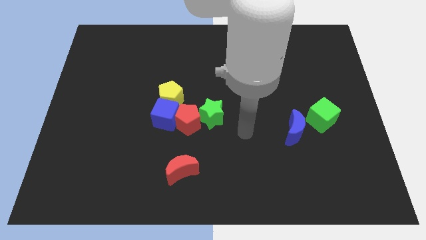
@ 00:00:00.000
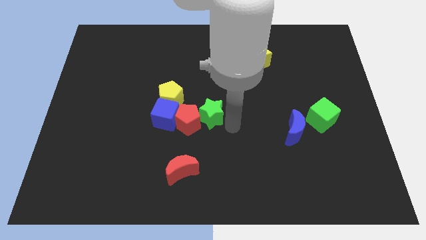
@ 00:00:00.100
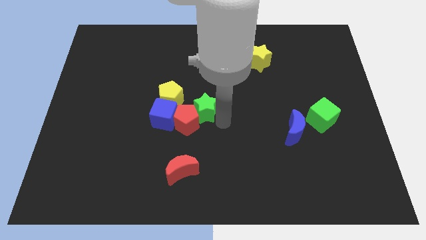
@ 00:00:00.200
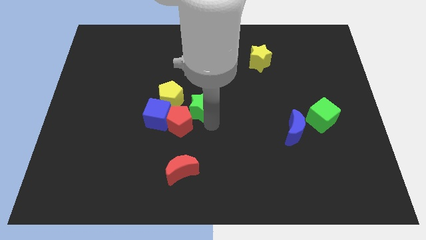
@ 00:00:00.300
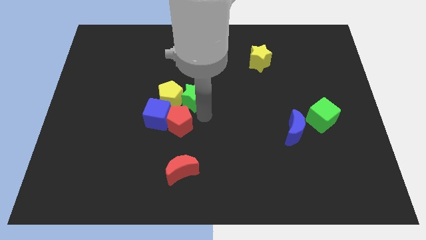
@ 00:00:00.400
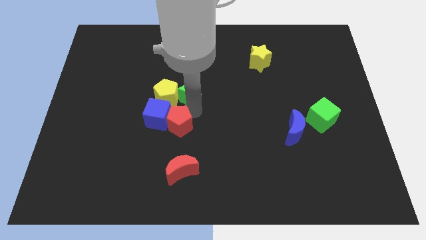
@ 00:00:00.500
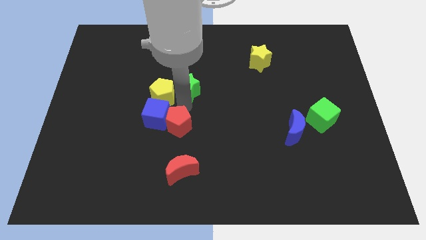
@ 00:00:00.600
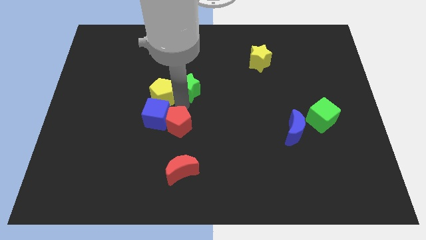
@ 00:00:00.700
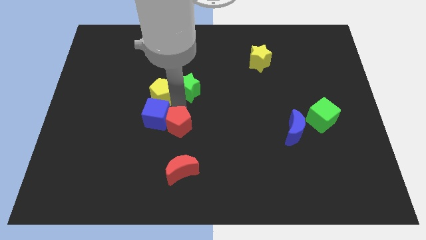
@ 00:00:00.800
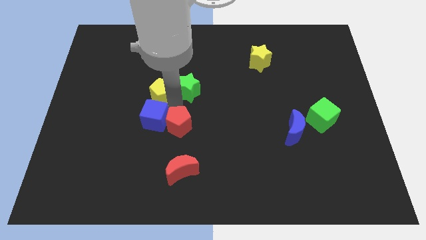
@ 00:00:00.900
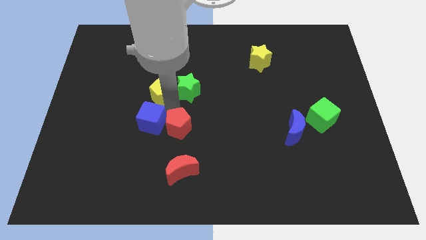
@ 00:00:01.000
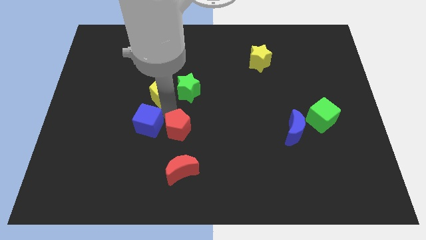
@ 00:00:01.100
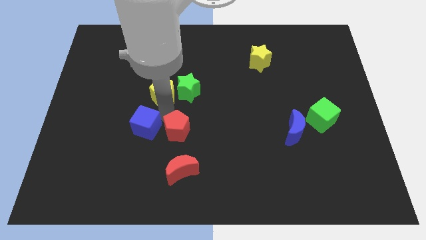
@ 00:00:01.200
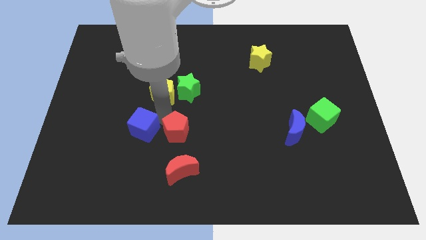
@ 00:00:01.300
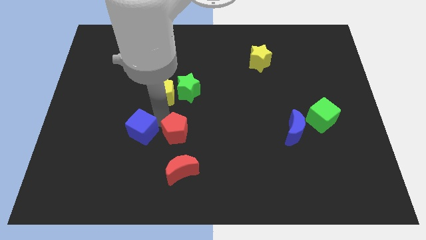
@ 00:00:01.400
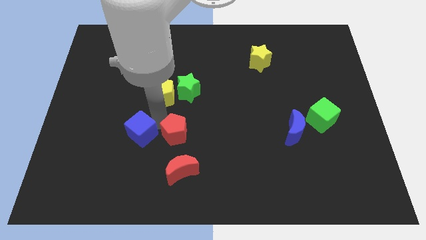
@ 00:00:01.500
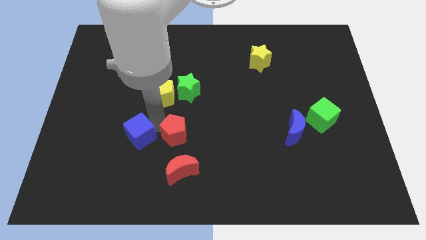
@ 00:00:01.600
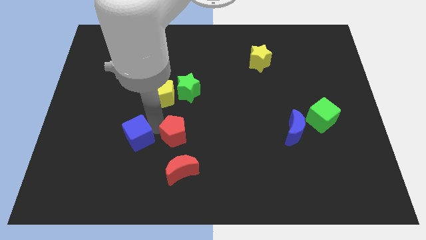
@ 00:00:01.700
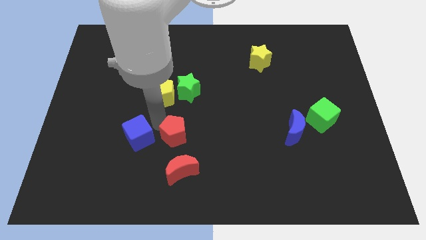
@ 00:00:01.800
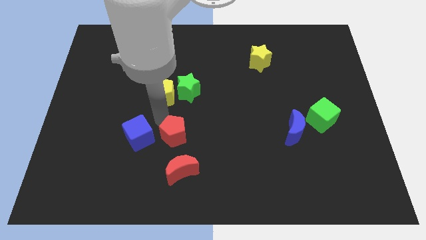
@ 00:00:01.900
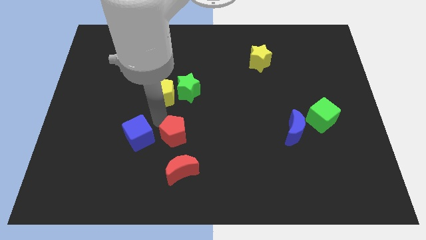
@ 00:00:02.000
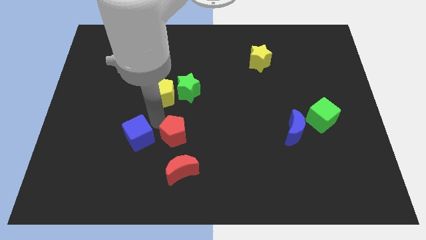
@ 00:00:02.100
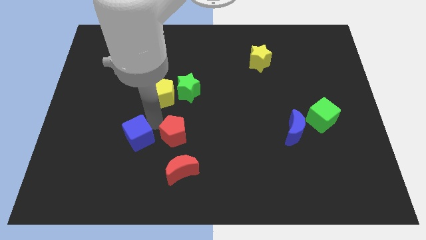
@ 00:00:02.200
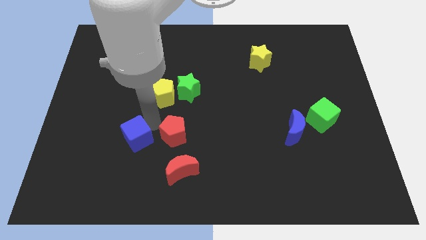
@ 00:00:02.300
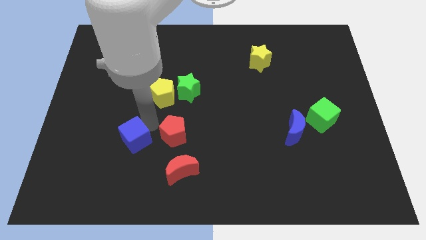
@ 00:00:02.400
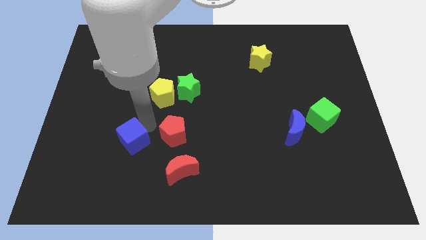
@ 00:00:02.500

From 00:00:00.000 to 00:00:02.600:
pull the blue cube apart from the yellow pentagon and red pentagon

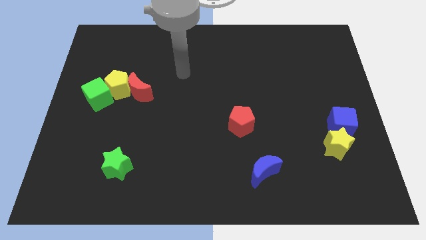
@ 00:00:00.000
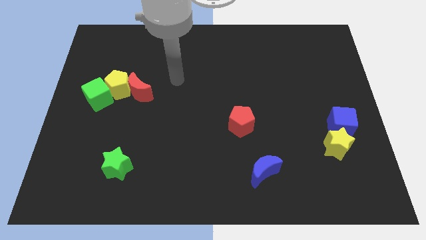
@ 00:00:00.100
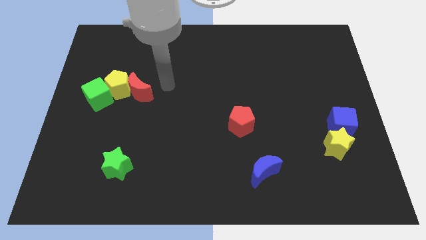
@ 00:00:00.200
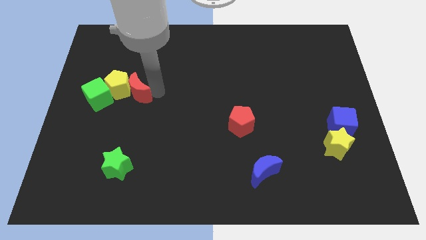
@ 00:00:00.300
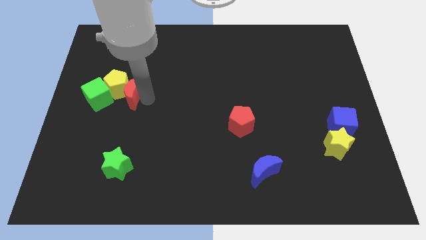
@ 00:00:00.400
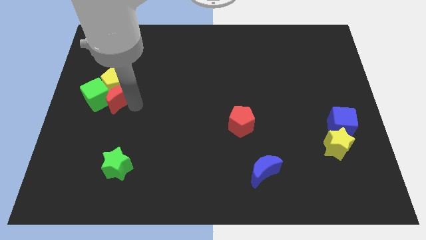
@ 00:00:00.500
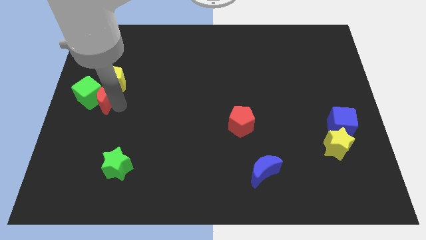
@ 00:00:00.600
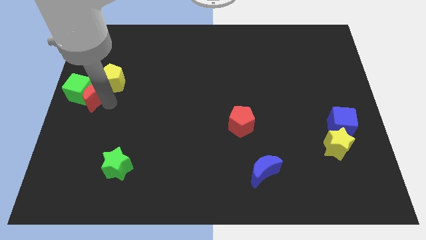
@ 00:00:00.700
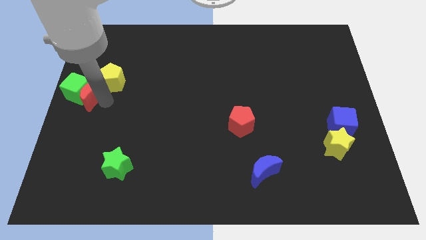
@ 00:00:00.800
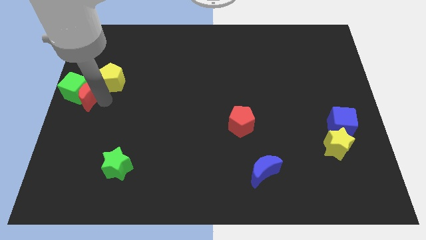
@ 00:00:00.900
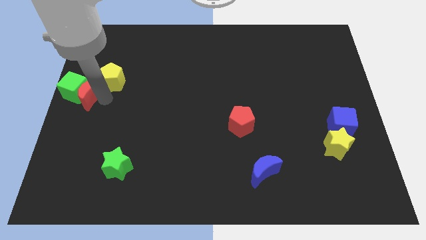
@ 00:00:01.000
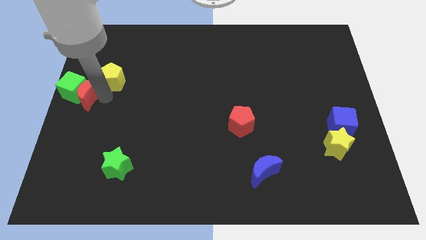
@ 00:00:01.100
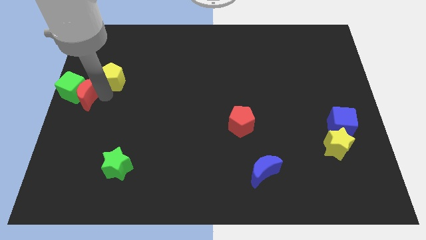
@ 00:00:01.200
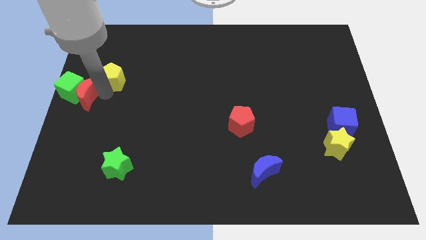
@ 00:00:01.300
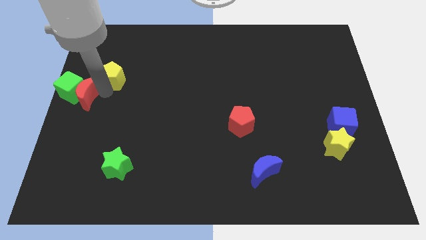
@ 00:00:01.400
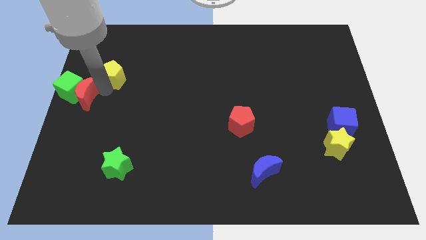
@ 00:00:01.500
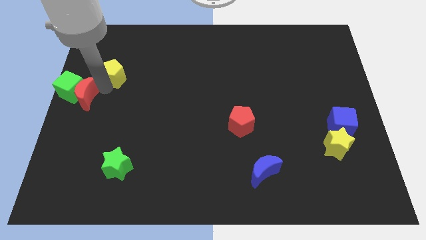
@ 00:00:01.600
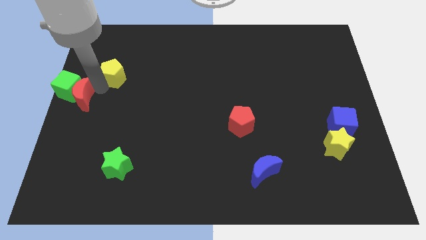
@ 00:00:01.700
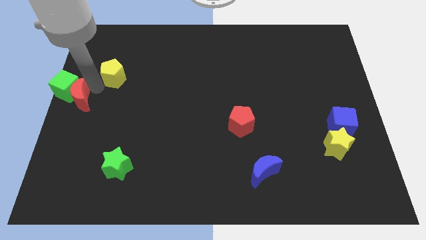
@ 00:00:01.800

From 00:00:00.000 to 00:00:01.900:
move the yellow pentagon away from the green cube and red moon

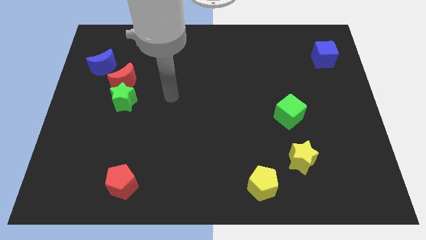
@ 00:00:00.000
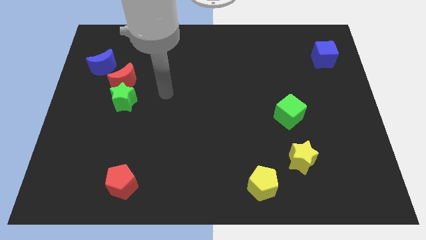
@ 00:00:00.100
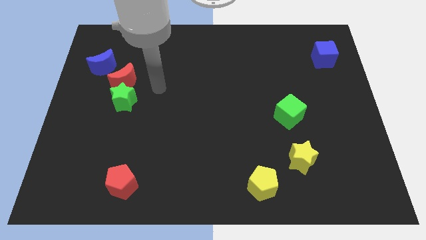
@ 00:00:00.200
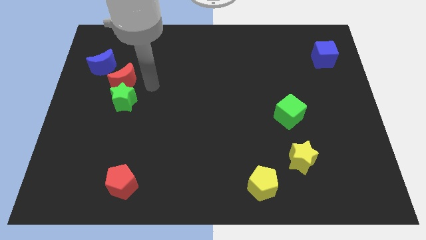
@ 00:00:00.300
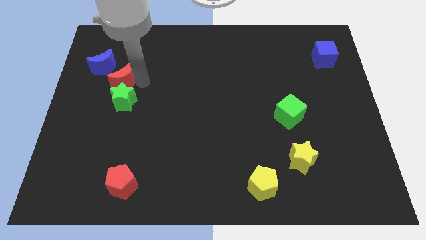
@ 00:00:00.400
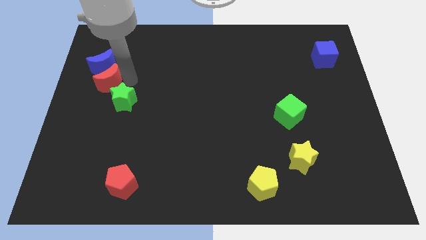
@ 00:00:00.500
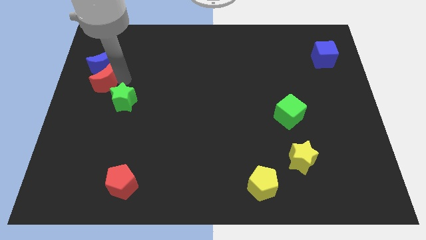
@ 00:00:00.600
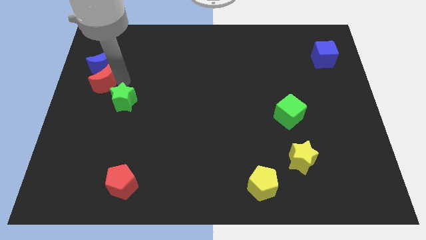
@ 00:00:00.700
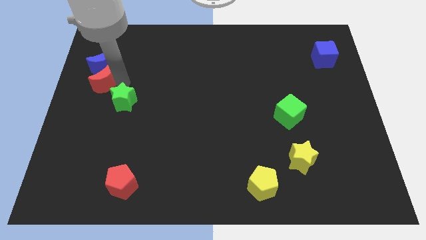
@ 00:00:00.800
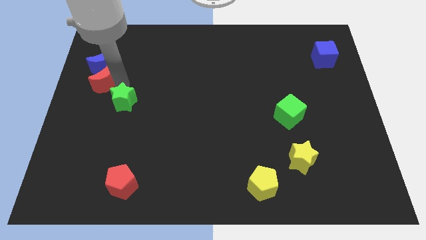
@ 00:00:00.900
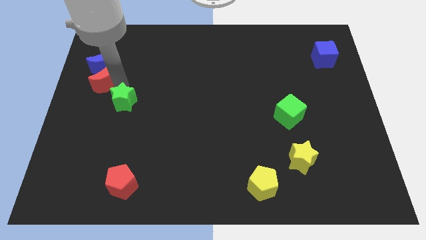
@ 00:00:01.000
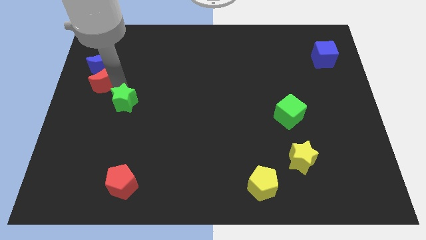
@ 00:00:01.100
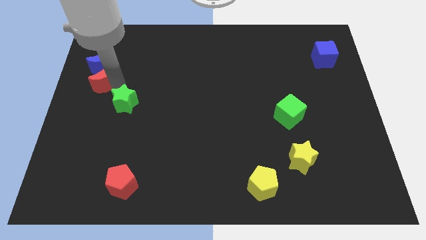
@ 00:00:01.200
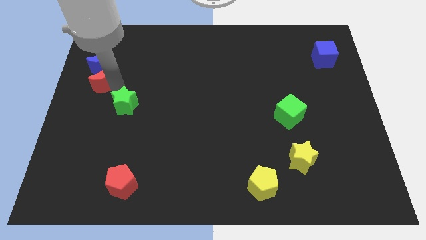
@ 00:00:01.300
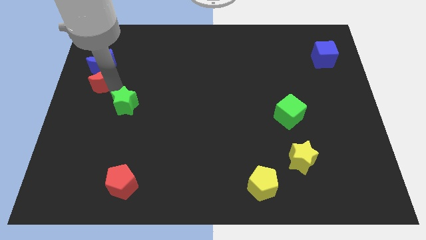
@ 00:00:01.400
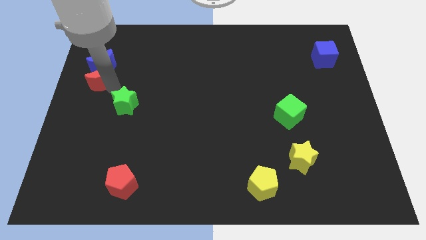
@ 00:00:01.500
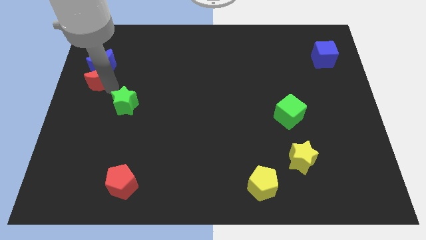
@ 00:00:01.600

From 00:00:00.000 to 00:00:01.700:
pull the green star apart from the red moon

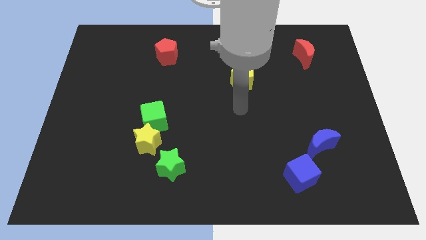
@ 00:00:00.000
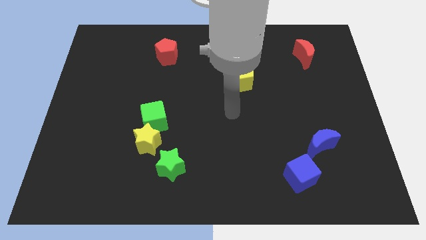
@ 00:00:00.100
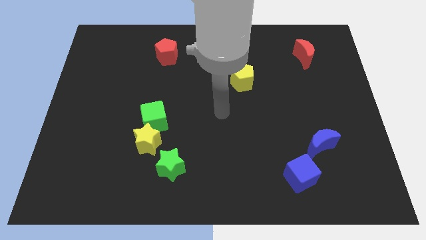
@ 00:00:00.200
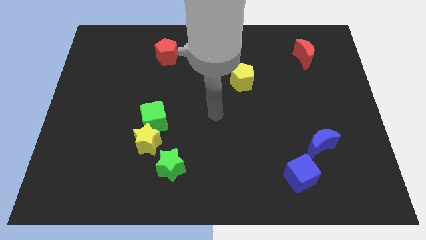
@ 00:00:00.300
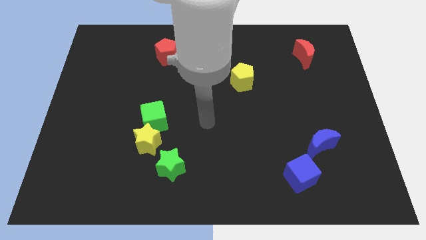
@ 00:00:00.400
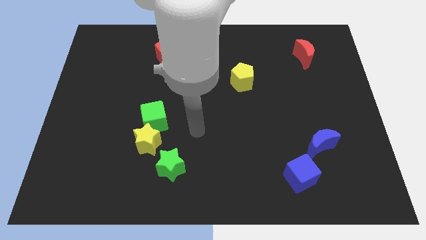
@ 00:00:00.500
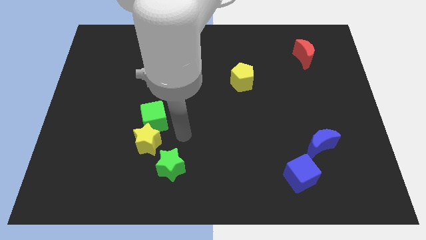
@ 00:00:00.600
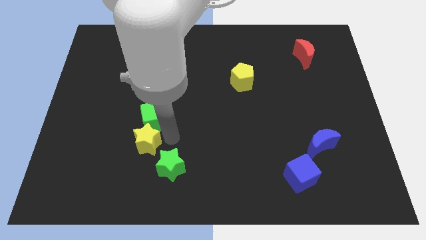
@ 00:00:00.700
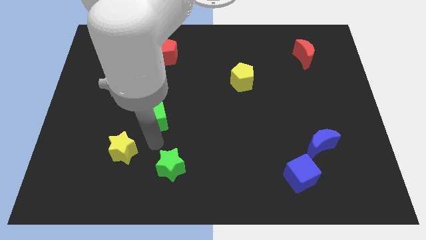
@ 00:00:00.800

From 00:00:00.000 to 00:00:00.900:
separate the green cube from the yellow star

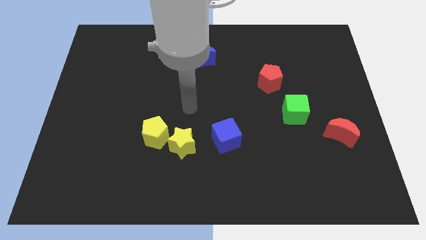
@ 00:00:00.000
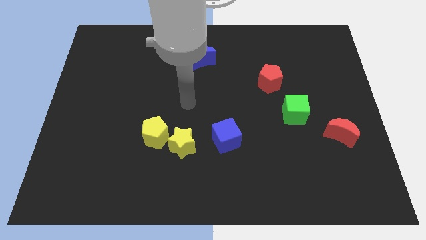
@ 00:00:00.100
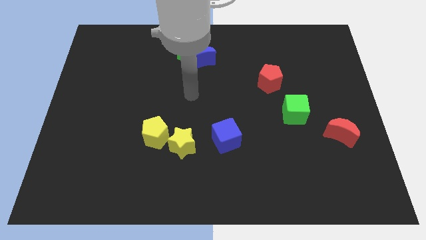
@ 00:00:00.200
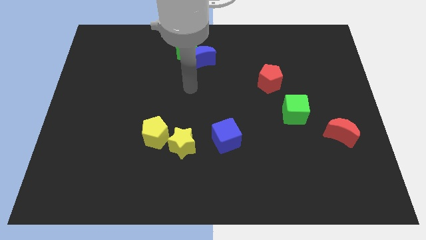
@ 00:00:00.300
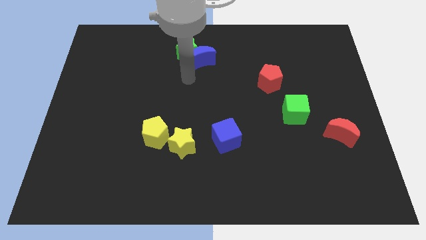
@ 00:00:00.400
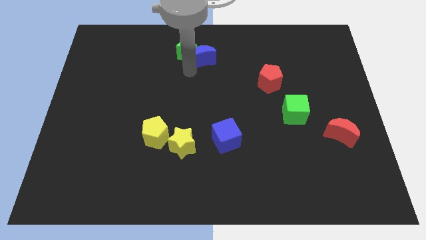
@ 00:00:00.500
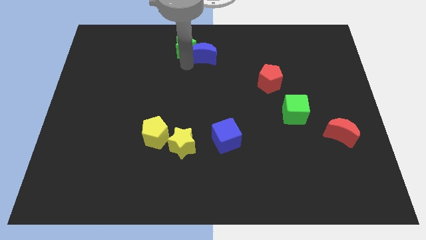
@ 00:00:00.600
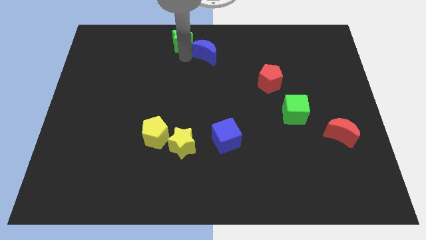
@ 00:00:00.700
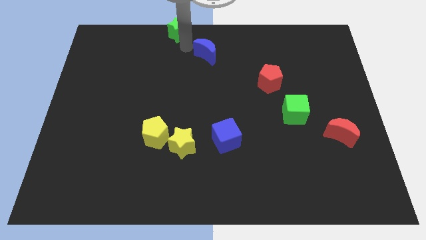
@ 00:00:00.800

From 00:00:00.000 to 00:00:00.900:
pull the blue moon apart from the green star

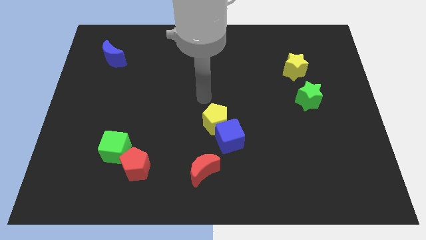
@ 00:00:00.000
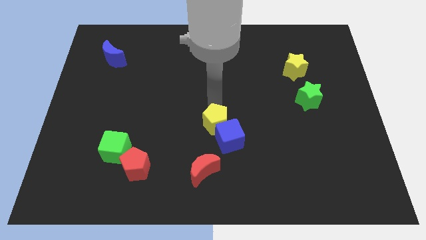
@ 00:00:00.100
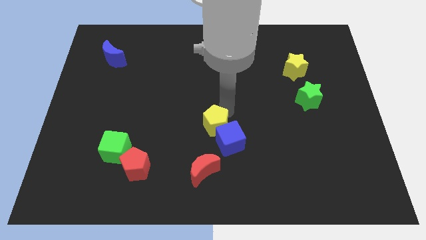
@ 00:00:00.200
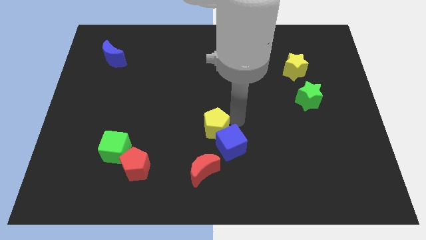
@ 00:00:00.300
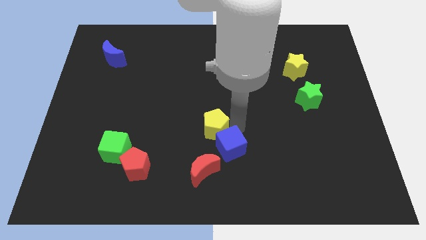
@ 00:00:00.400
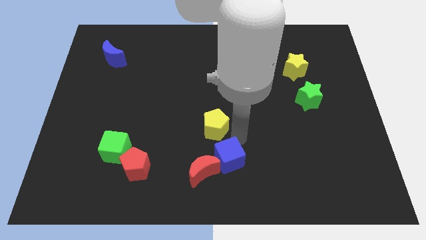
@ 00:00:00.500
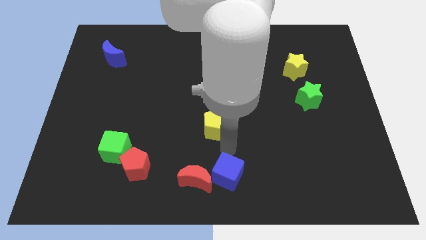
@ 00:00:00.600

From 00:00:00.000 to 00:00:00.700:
separate the yellow pentagon from the blue cube

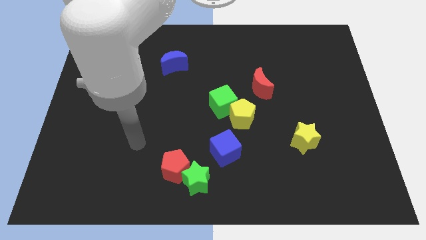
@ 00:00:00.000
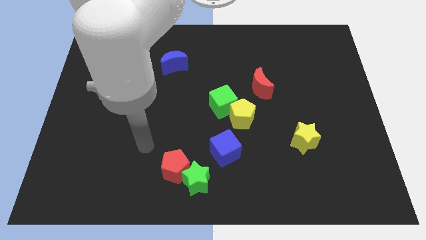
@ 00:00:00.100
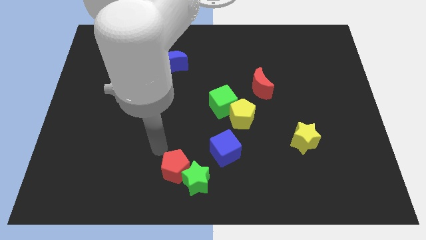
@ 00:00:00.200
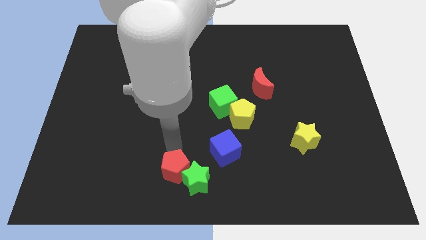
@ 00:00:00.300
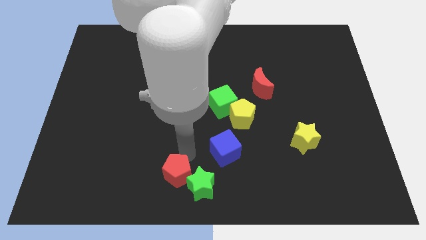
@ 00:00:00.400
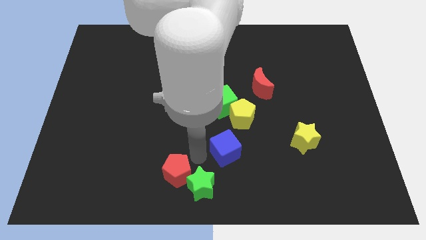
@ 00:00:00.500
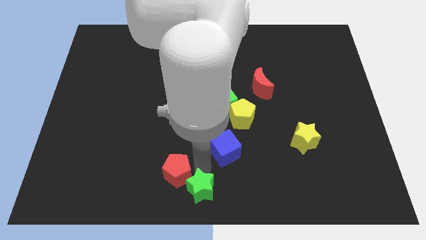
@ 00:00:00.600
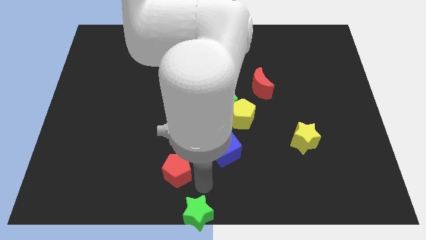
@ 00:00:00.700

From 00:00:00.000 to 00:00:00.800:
pull the red pentagon apart from the green star
